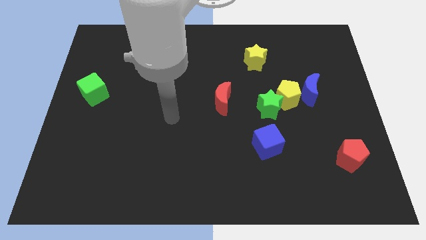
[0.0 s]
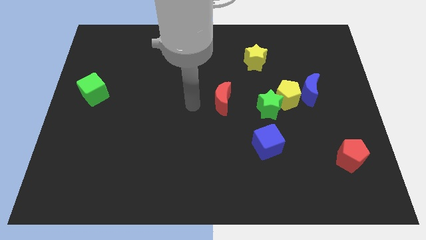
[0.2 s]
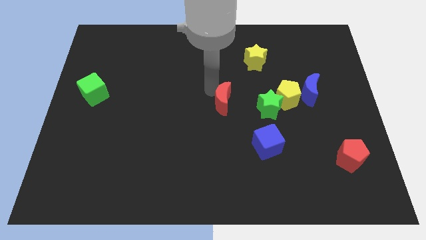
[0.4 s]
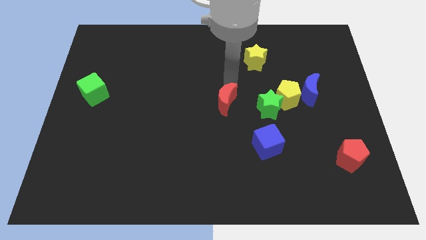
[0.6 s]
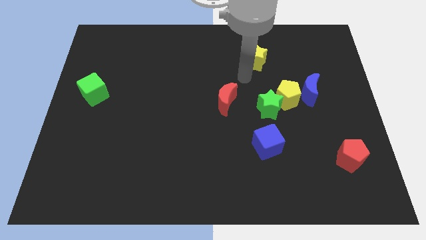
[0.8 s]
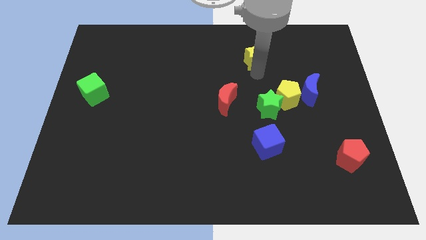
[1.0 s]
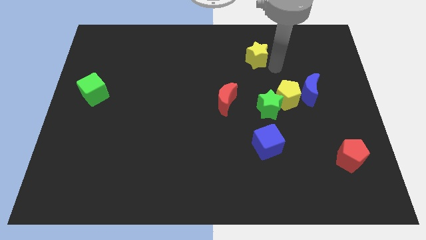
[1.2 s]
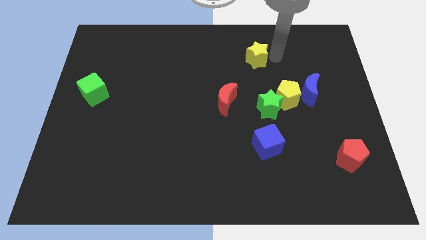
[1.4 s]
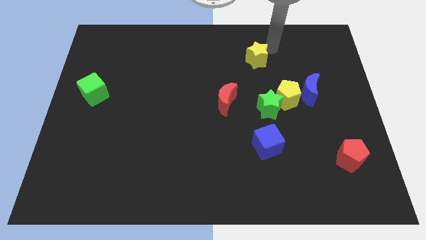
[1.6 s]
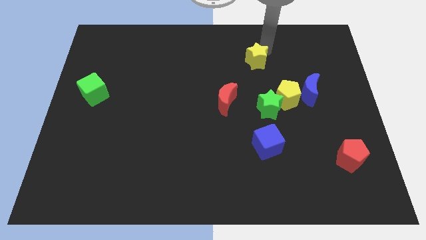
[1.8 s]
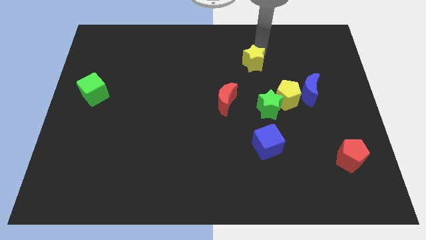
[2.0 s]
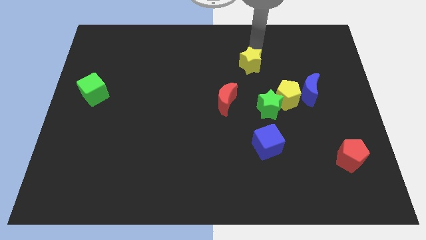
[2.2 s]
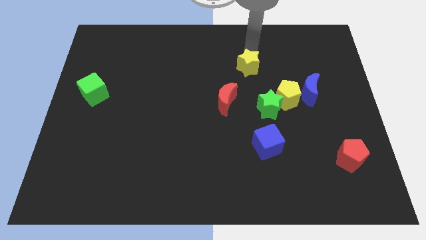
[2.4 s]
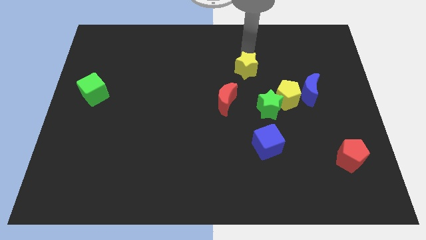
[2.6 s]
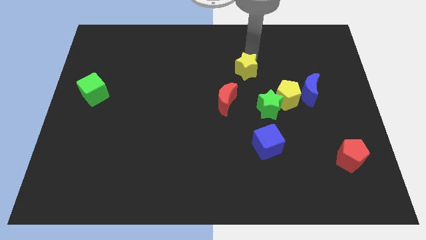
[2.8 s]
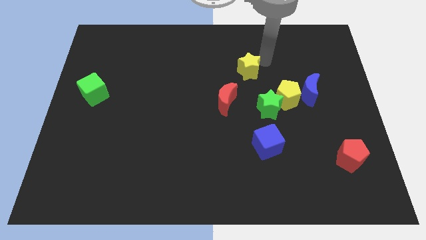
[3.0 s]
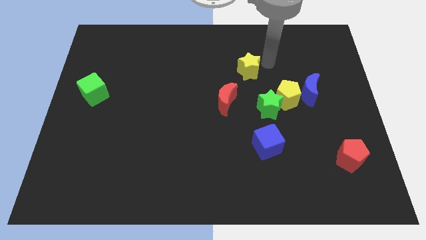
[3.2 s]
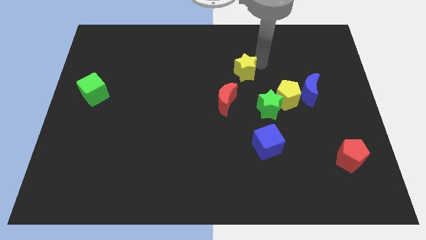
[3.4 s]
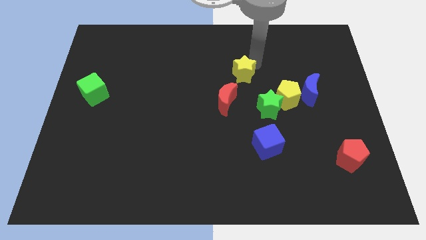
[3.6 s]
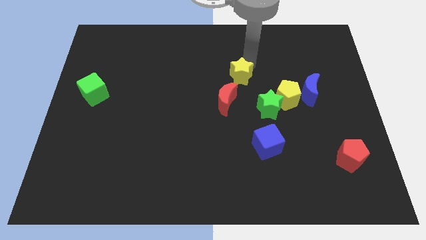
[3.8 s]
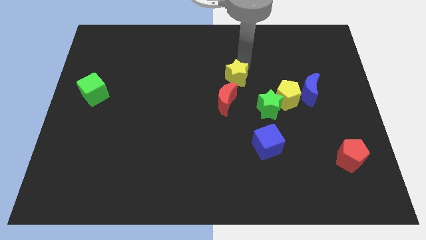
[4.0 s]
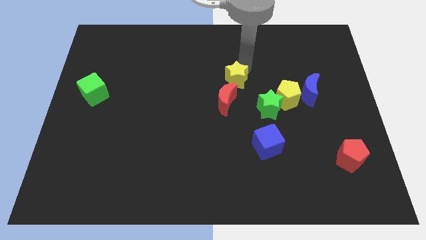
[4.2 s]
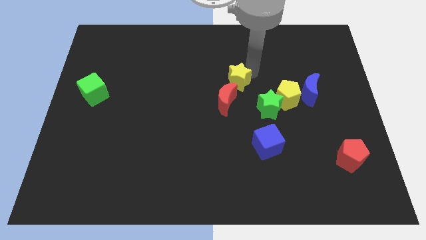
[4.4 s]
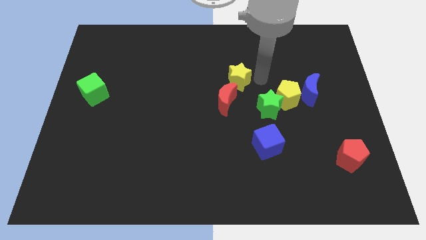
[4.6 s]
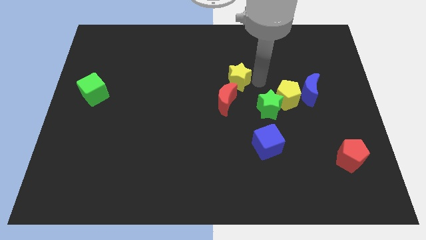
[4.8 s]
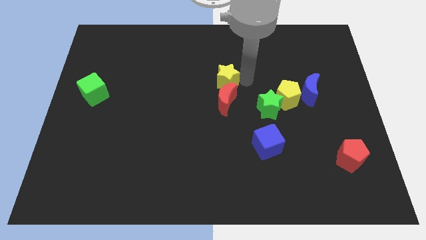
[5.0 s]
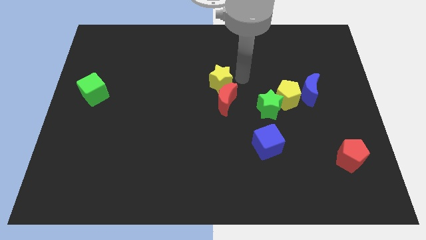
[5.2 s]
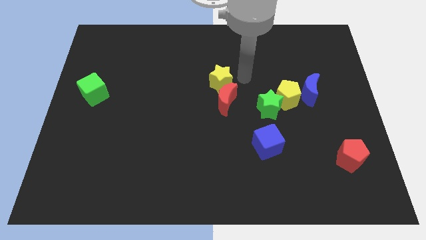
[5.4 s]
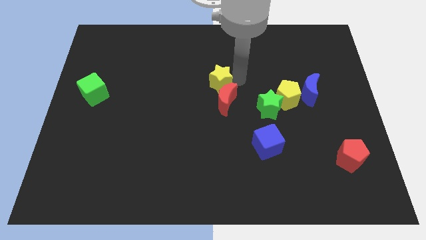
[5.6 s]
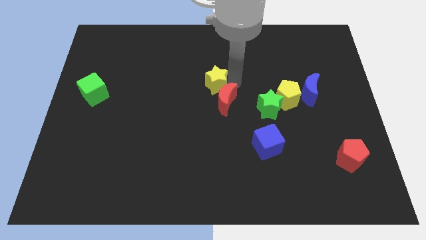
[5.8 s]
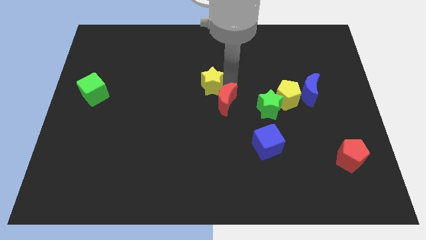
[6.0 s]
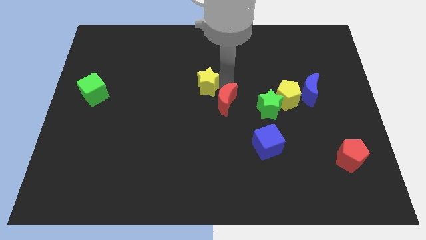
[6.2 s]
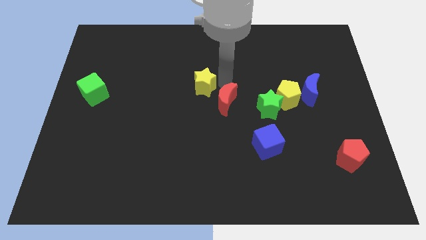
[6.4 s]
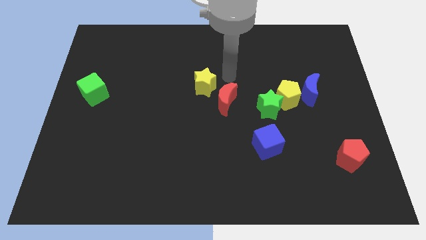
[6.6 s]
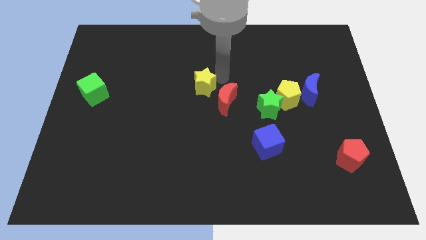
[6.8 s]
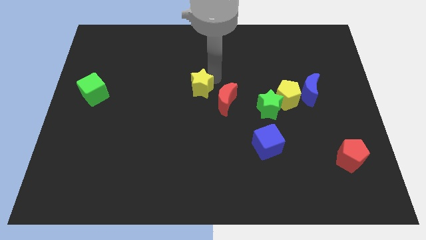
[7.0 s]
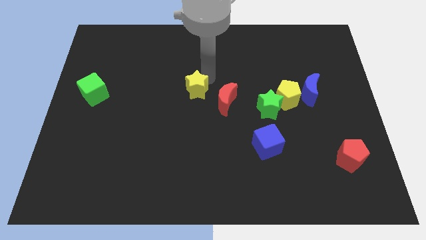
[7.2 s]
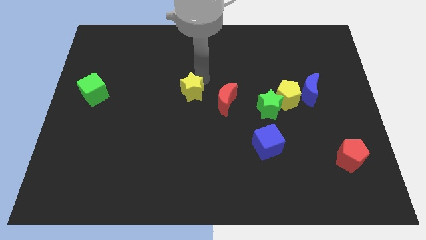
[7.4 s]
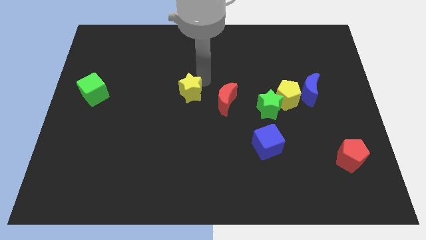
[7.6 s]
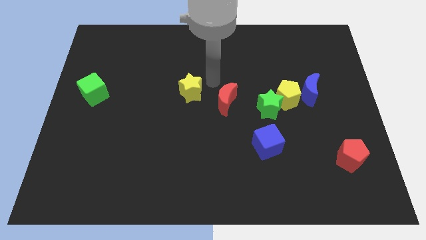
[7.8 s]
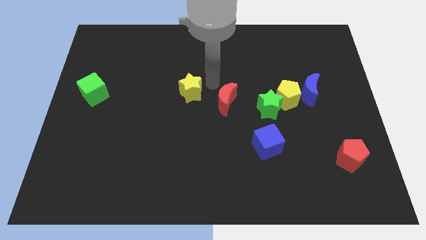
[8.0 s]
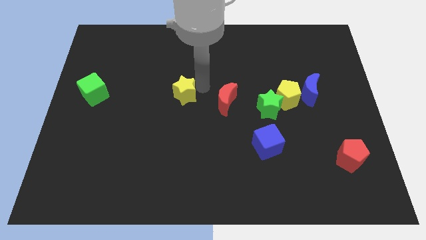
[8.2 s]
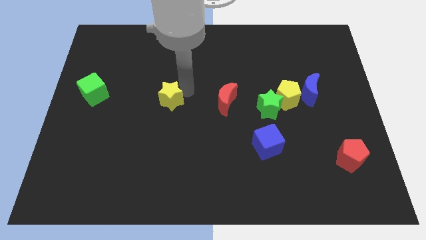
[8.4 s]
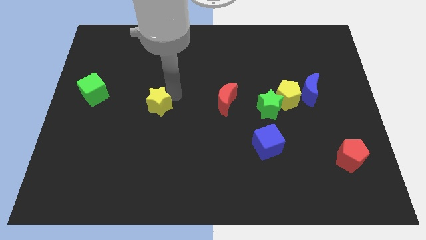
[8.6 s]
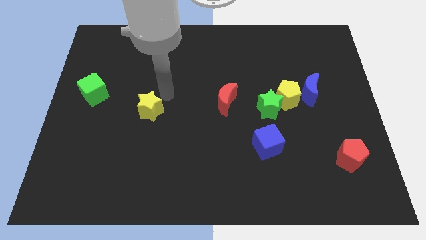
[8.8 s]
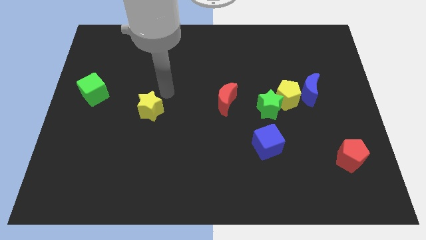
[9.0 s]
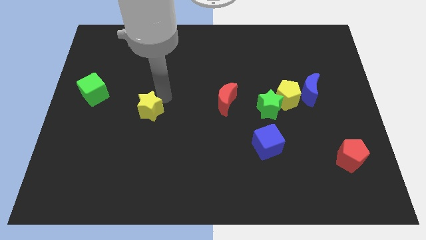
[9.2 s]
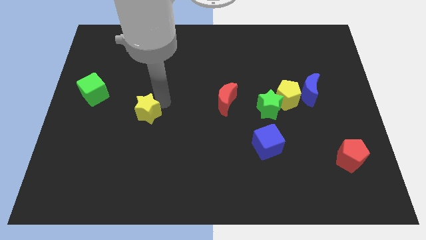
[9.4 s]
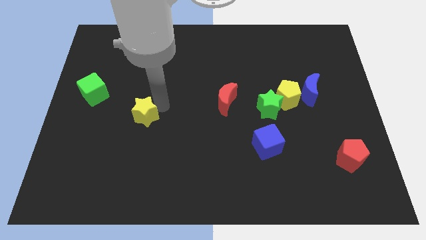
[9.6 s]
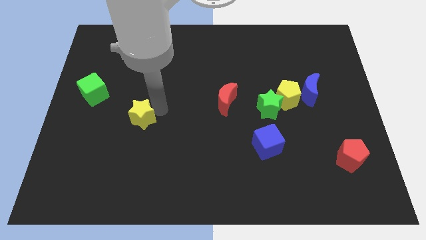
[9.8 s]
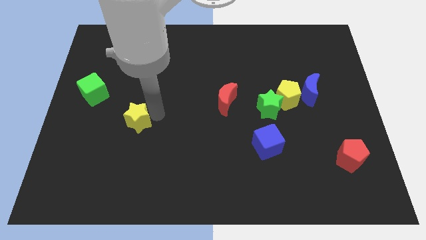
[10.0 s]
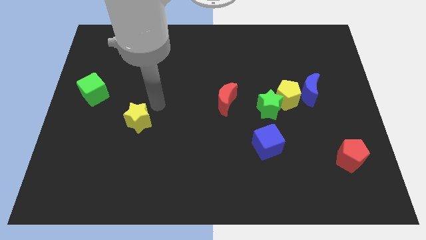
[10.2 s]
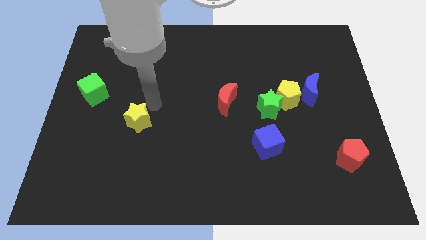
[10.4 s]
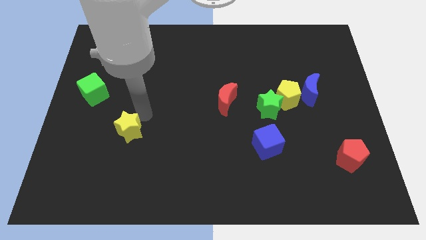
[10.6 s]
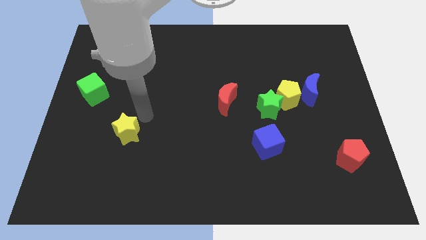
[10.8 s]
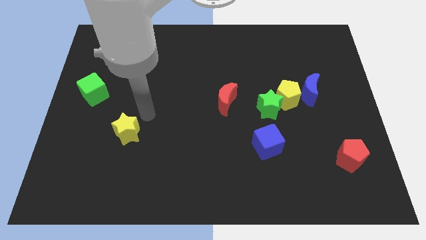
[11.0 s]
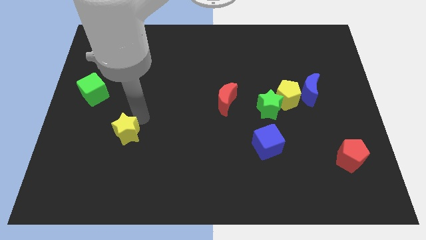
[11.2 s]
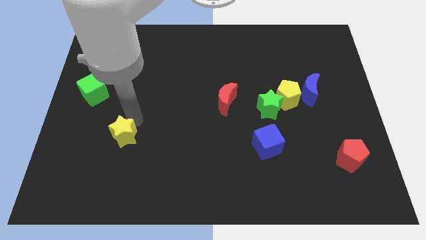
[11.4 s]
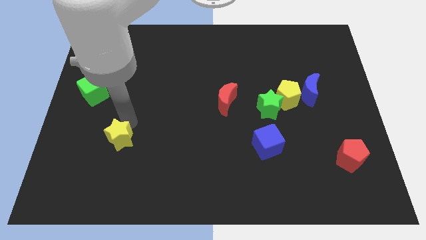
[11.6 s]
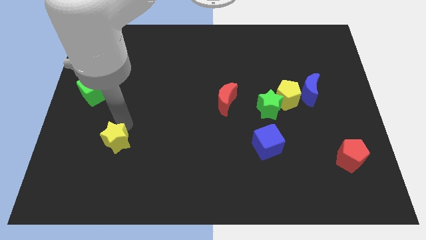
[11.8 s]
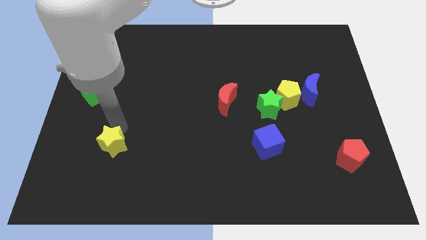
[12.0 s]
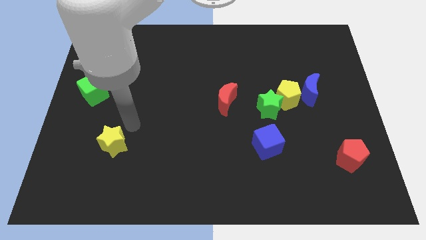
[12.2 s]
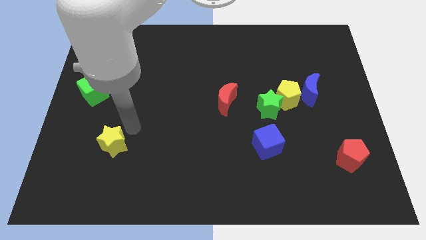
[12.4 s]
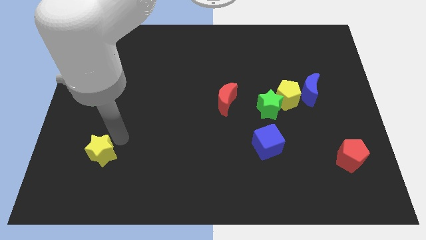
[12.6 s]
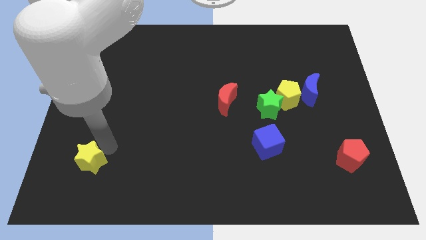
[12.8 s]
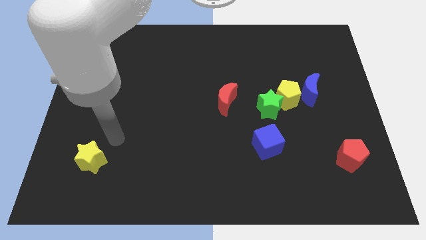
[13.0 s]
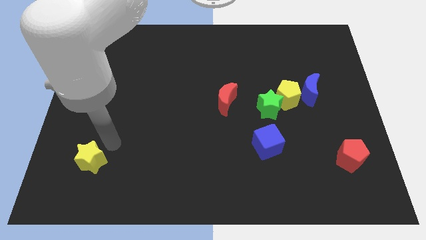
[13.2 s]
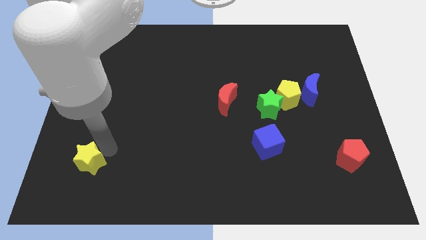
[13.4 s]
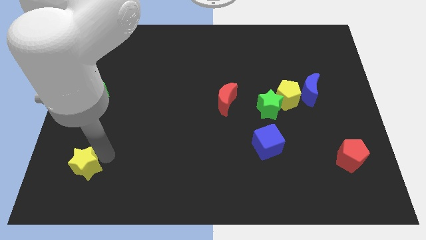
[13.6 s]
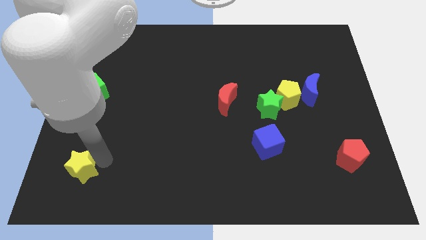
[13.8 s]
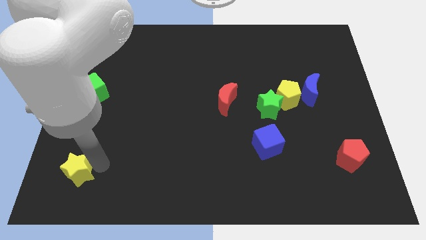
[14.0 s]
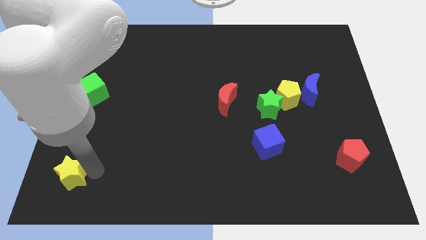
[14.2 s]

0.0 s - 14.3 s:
move the yellow star to the bottom left

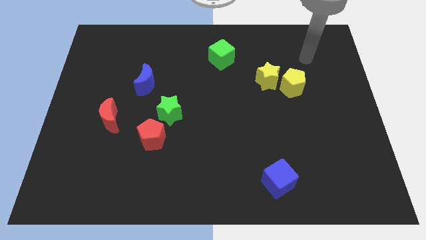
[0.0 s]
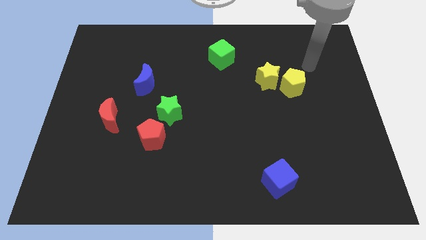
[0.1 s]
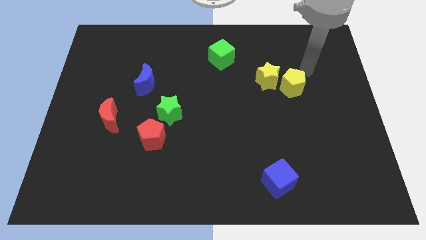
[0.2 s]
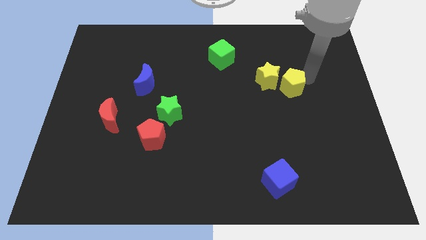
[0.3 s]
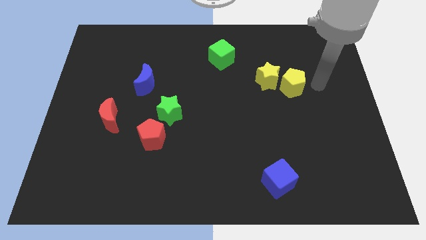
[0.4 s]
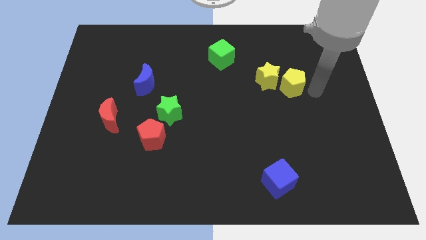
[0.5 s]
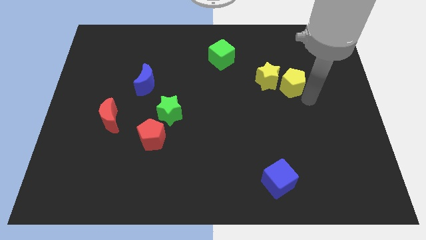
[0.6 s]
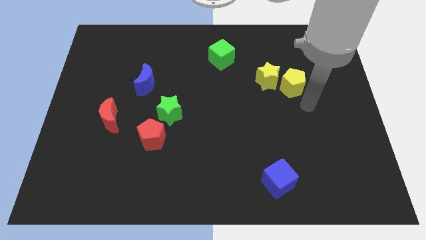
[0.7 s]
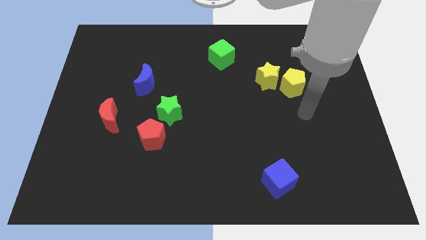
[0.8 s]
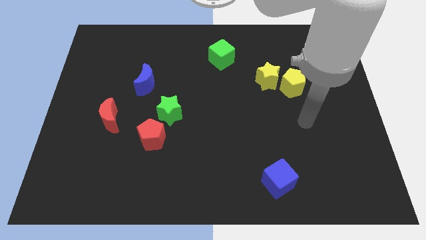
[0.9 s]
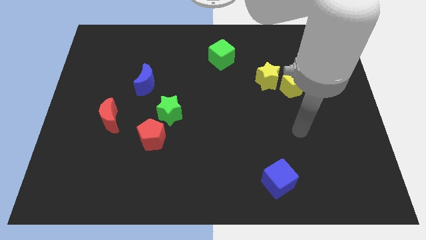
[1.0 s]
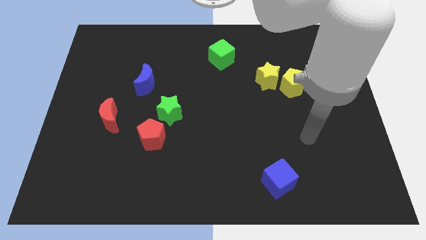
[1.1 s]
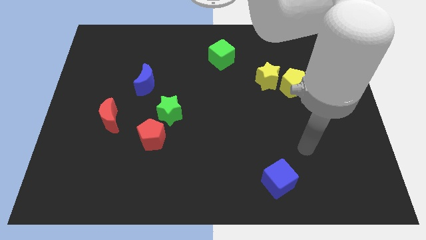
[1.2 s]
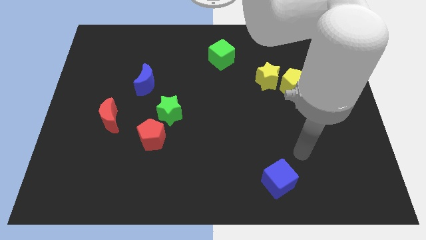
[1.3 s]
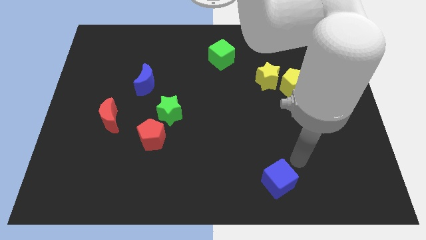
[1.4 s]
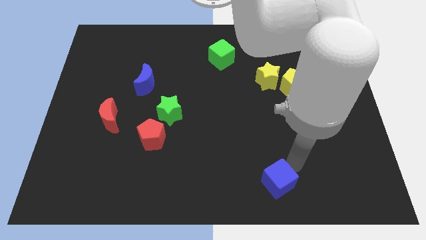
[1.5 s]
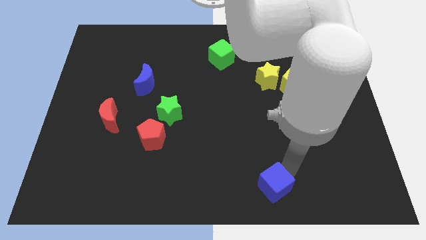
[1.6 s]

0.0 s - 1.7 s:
slide the blue cube to the bottom
